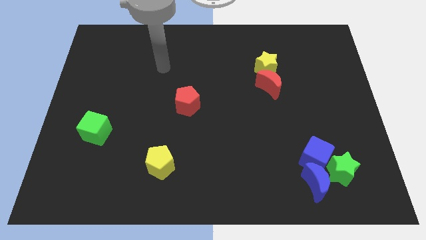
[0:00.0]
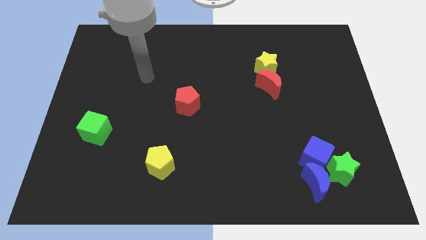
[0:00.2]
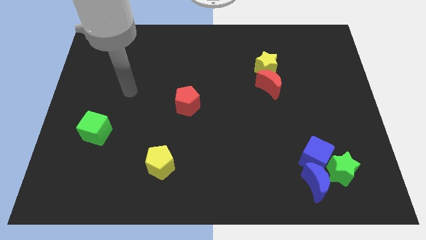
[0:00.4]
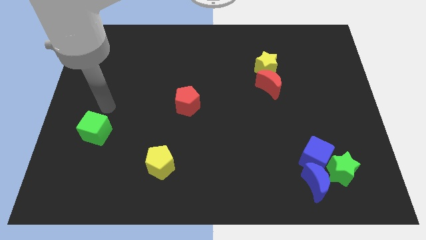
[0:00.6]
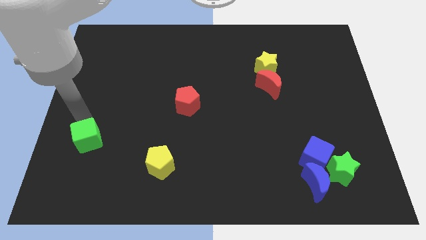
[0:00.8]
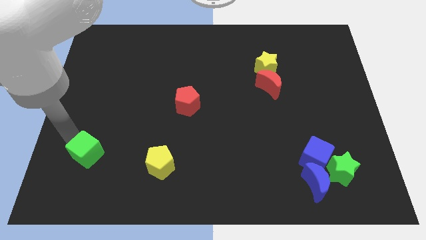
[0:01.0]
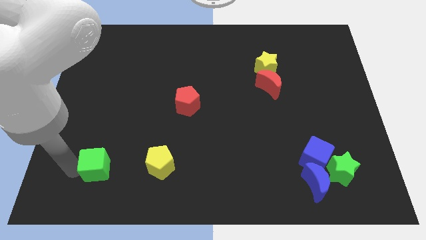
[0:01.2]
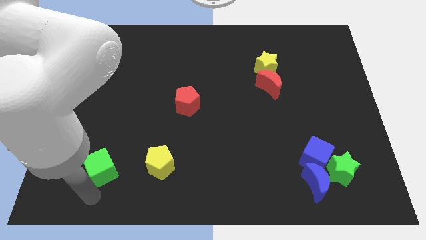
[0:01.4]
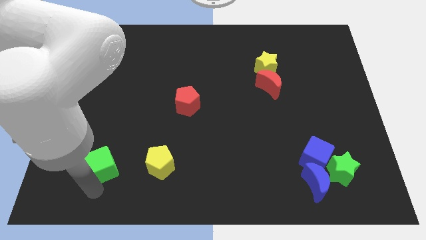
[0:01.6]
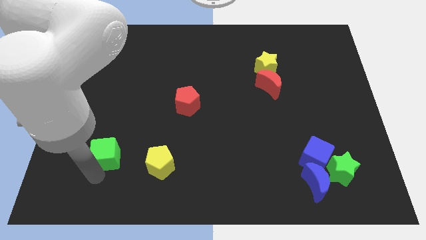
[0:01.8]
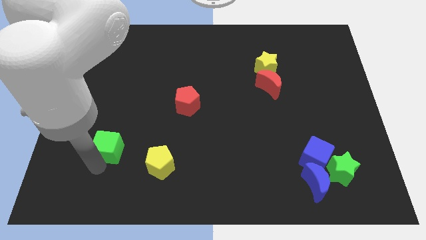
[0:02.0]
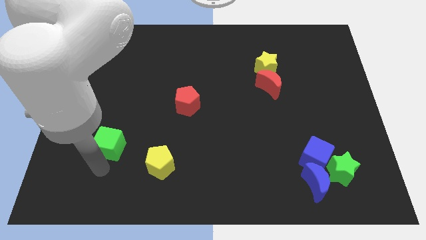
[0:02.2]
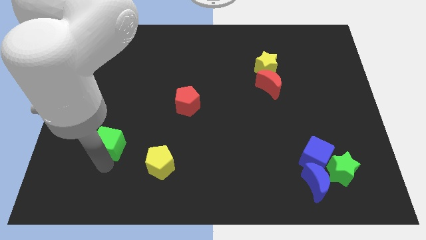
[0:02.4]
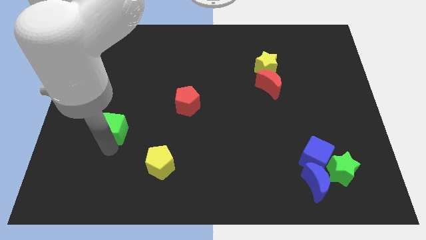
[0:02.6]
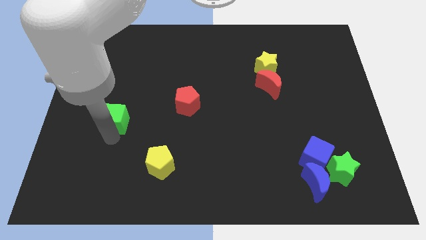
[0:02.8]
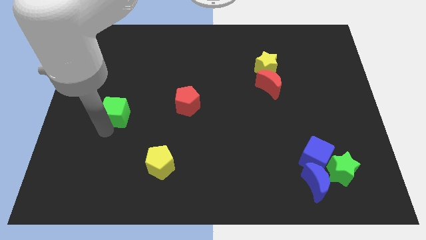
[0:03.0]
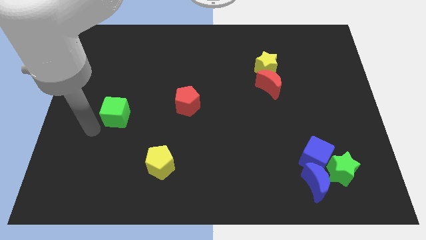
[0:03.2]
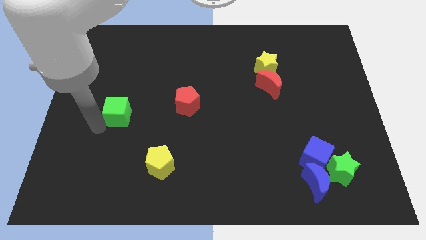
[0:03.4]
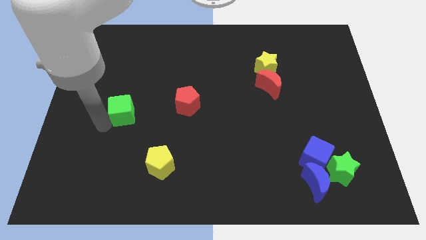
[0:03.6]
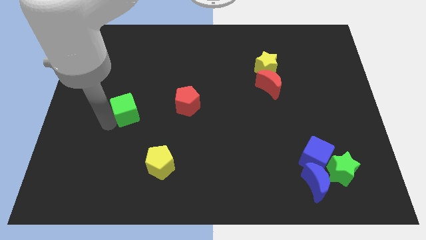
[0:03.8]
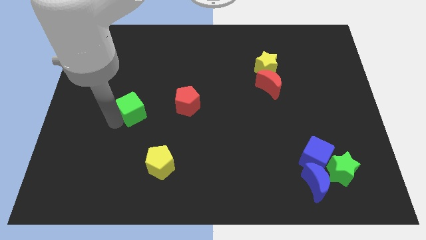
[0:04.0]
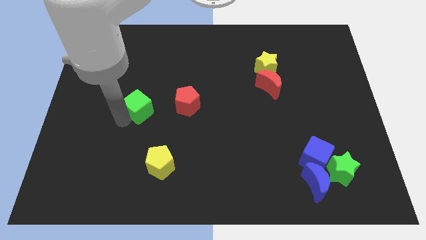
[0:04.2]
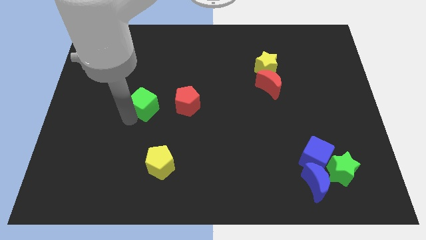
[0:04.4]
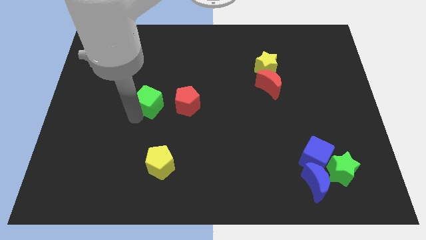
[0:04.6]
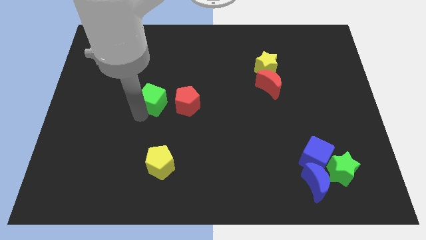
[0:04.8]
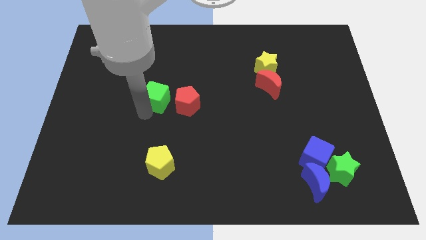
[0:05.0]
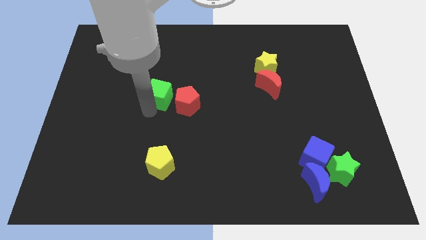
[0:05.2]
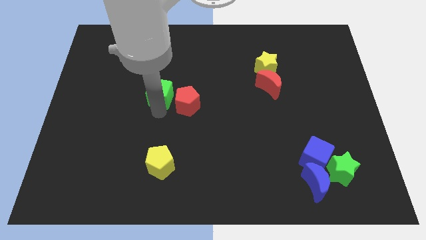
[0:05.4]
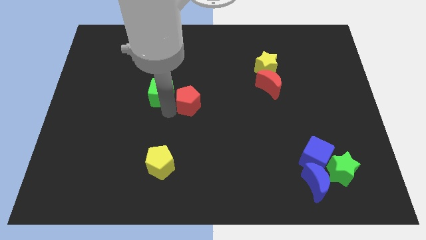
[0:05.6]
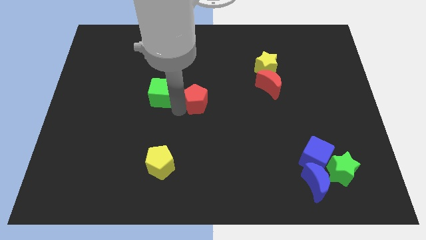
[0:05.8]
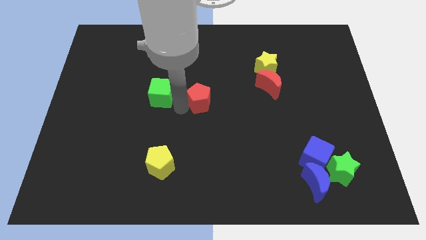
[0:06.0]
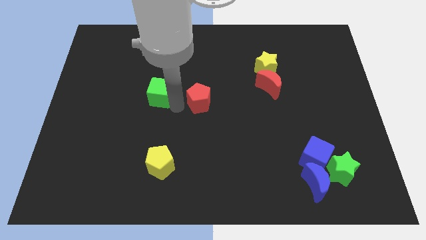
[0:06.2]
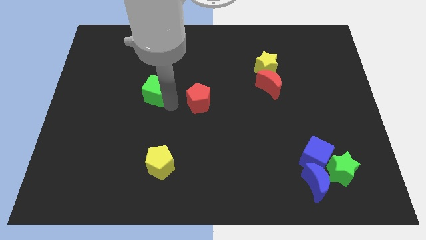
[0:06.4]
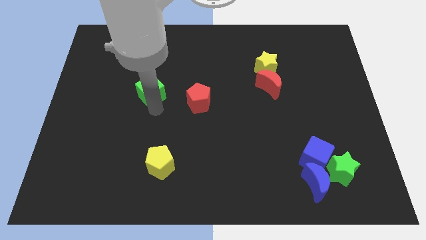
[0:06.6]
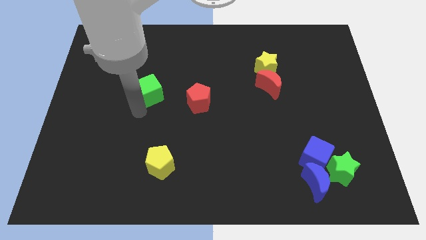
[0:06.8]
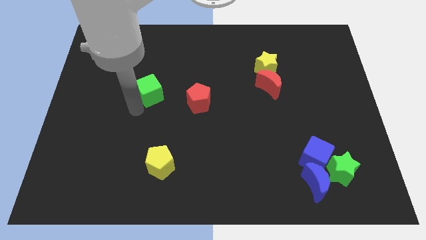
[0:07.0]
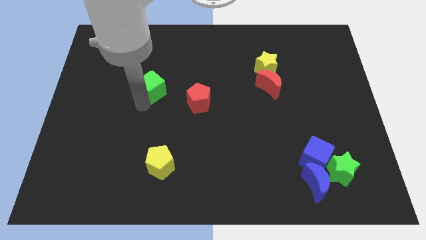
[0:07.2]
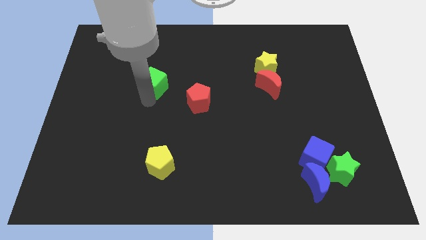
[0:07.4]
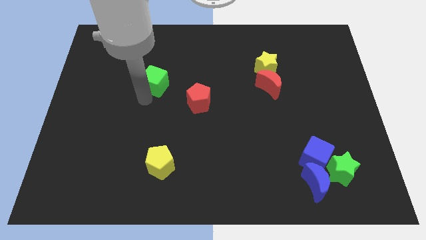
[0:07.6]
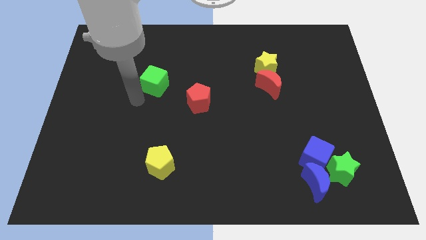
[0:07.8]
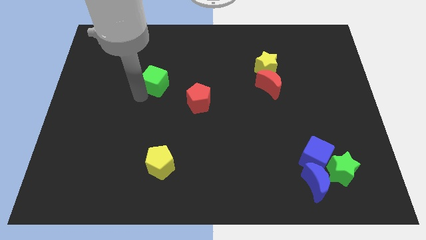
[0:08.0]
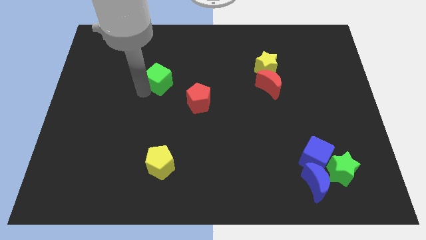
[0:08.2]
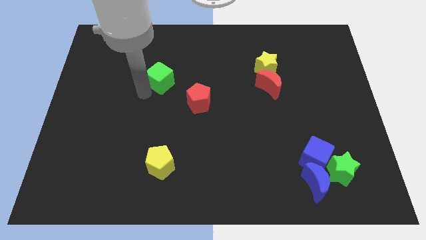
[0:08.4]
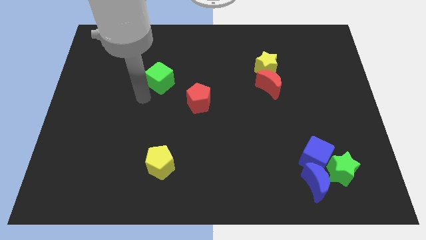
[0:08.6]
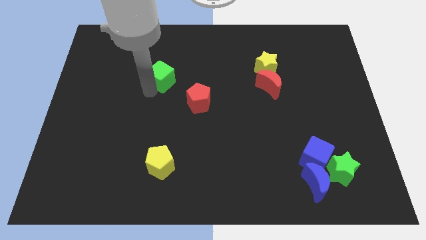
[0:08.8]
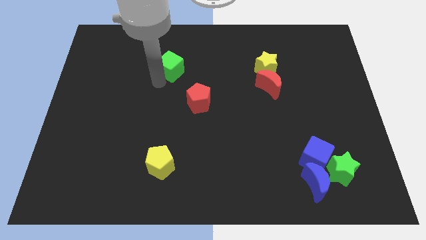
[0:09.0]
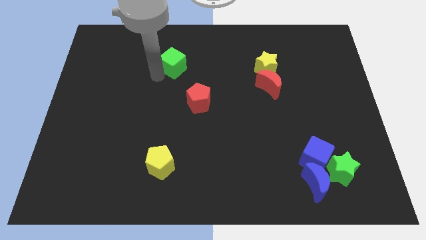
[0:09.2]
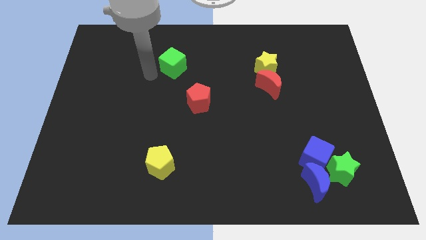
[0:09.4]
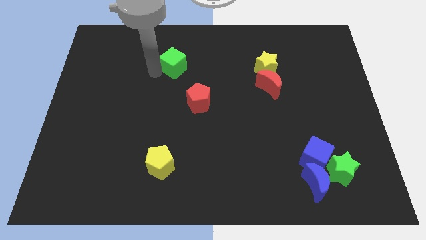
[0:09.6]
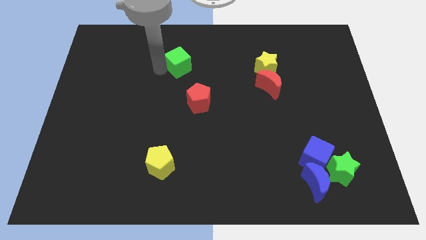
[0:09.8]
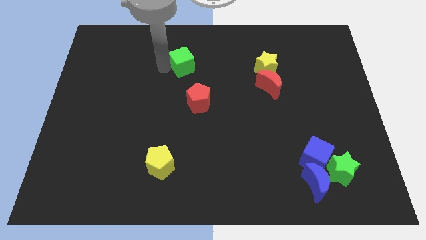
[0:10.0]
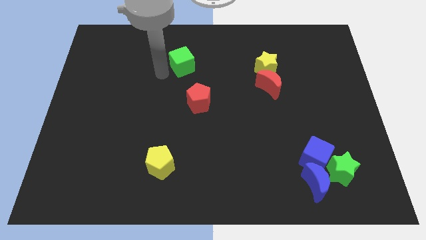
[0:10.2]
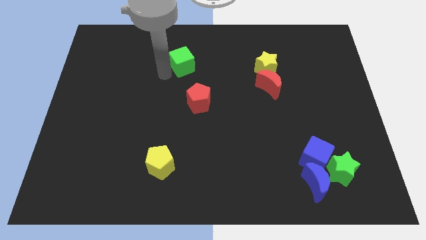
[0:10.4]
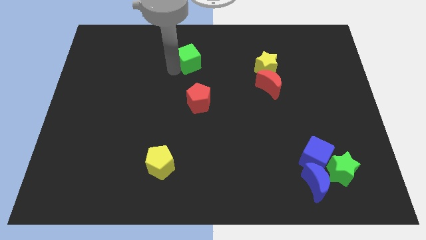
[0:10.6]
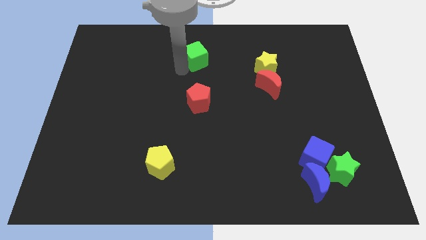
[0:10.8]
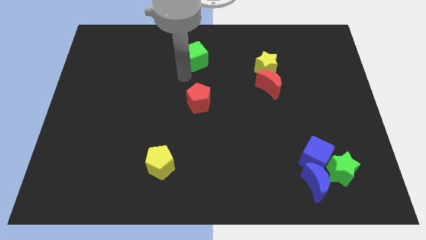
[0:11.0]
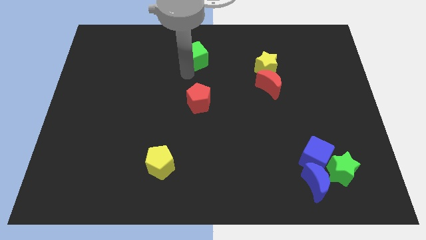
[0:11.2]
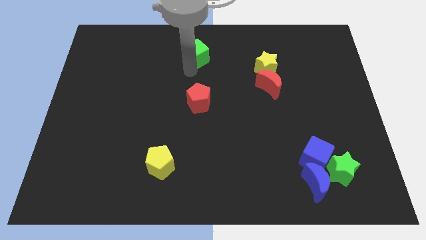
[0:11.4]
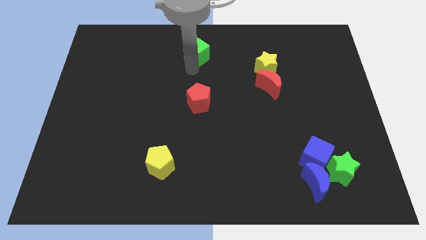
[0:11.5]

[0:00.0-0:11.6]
move the green cube to the top side
